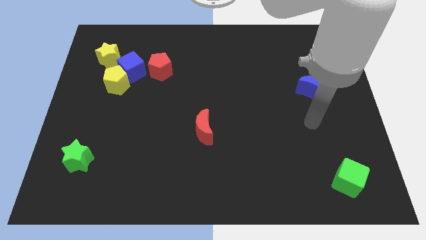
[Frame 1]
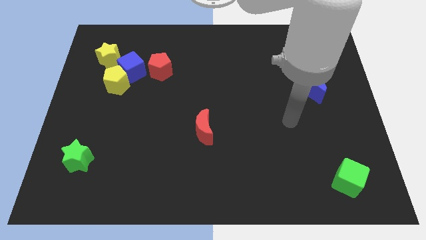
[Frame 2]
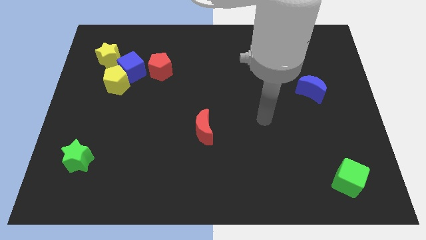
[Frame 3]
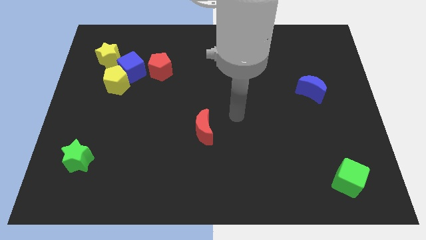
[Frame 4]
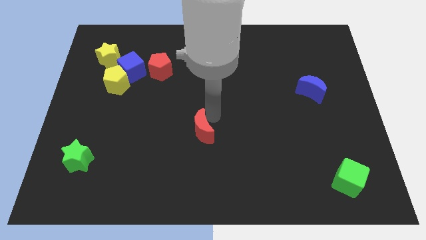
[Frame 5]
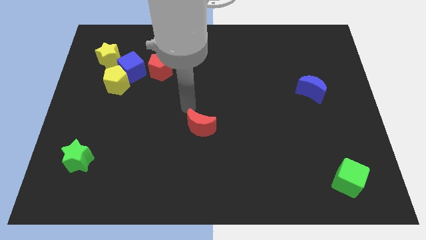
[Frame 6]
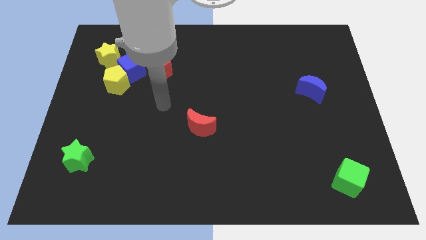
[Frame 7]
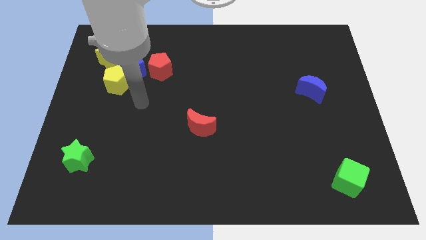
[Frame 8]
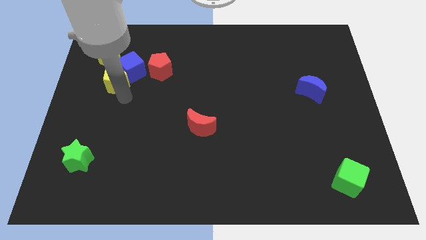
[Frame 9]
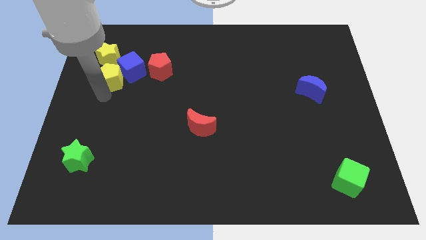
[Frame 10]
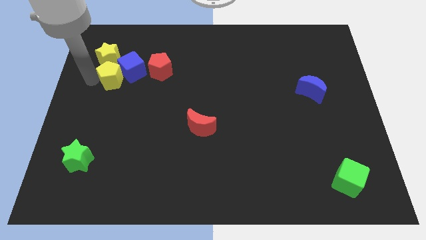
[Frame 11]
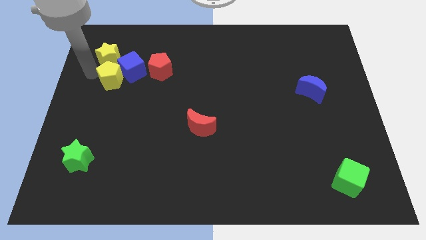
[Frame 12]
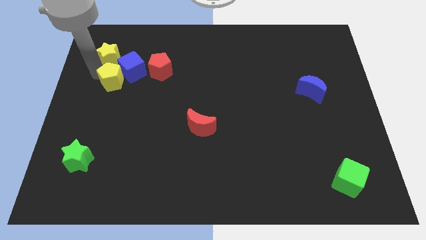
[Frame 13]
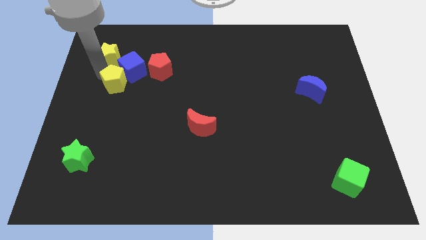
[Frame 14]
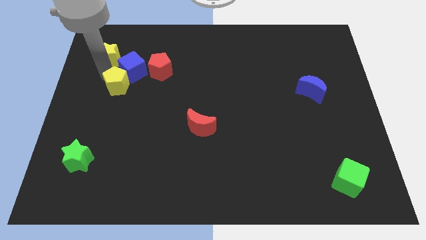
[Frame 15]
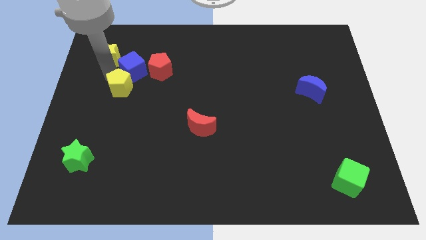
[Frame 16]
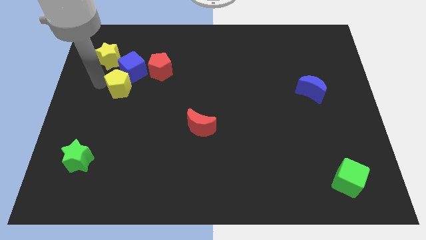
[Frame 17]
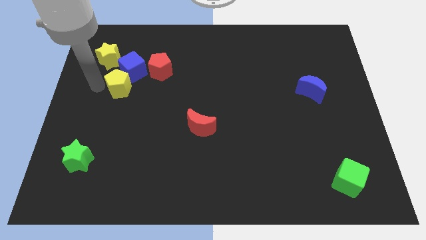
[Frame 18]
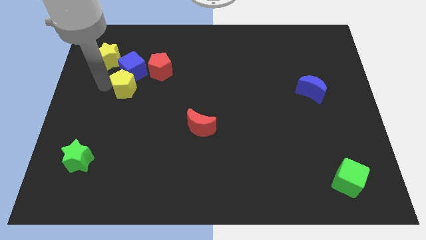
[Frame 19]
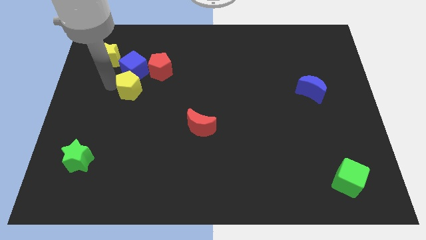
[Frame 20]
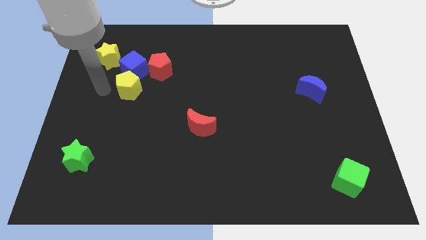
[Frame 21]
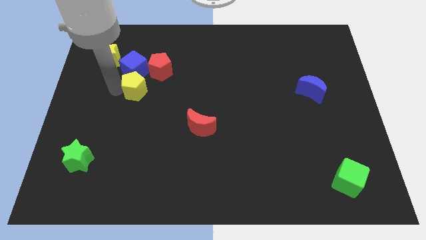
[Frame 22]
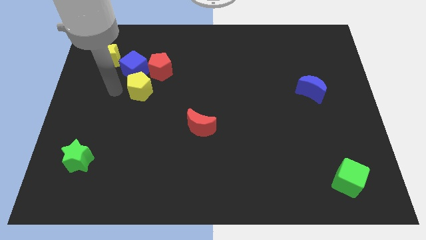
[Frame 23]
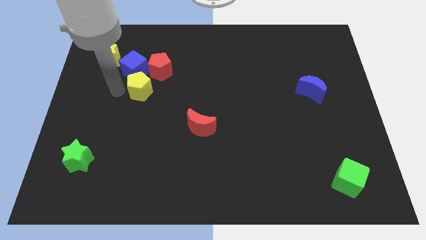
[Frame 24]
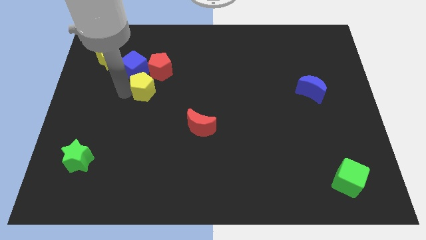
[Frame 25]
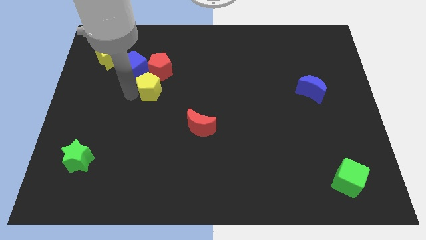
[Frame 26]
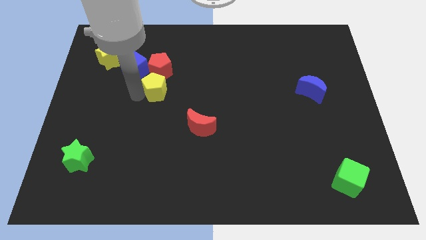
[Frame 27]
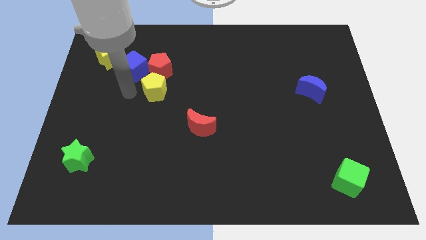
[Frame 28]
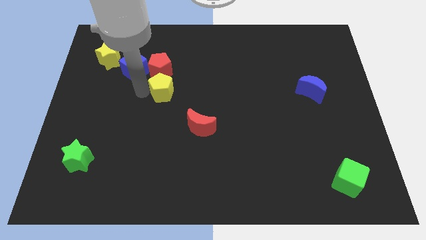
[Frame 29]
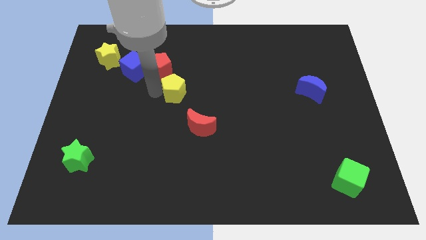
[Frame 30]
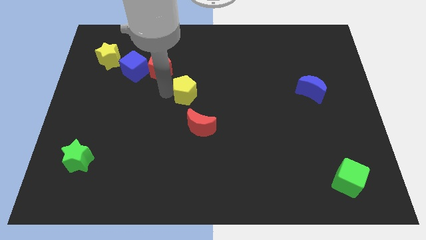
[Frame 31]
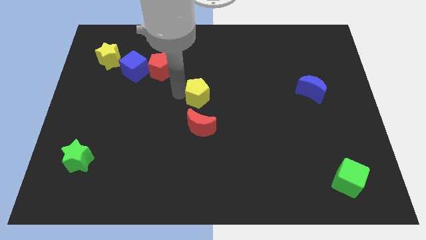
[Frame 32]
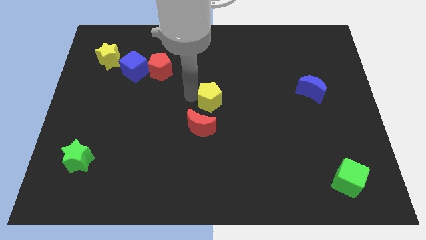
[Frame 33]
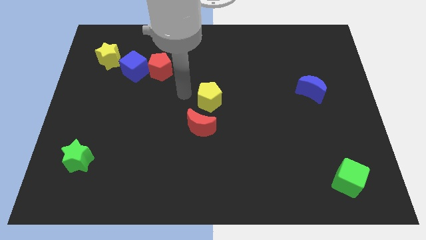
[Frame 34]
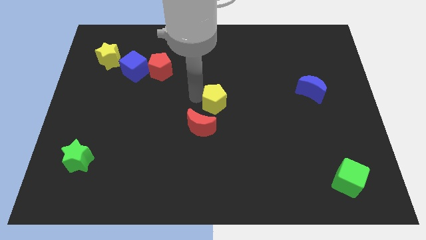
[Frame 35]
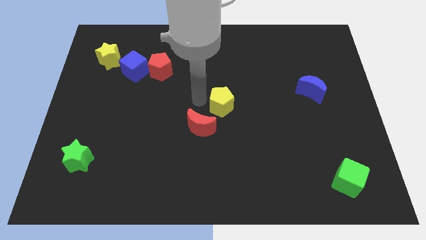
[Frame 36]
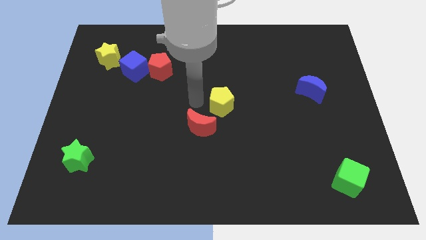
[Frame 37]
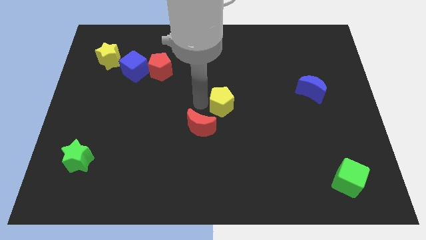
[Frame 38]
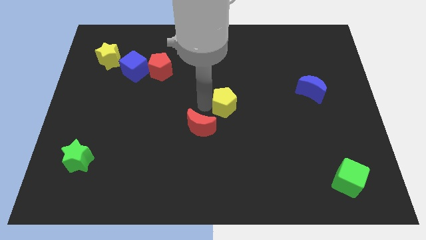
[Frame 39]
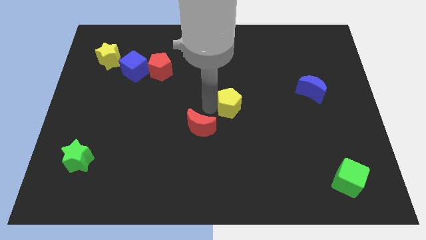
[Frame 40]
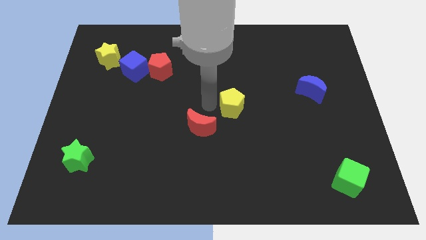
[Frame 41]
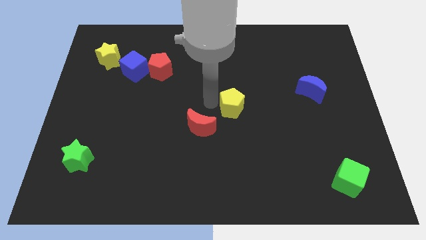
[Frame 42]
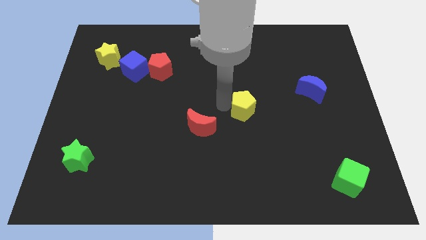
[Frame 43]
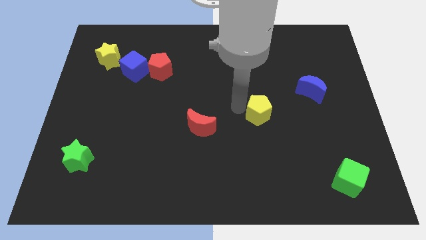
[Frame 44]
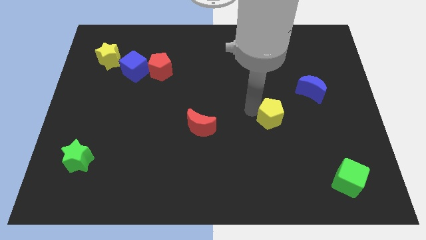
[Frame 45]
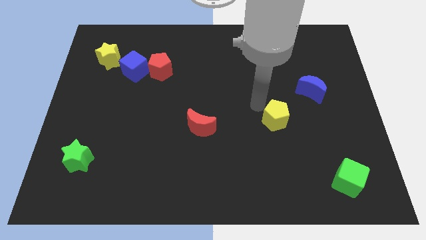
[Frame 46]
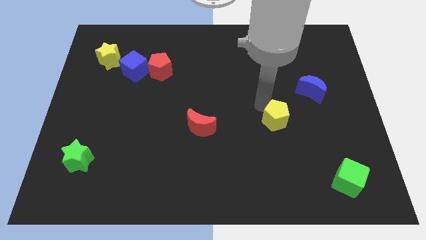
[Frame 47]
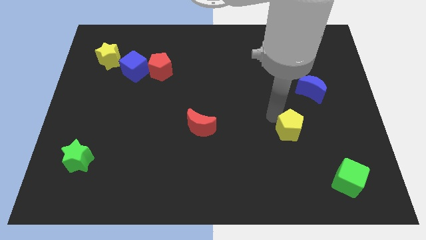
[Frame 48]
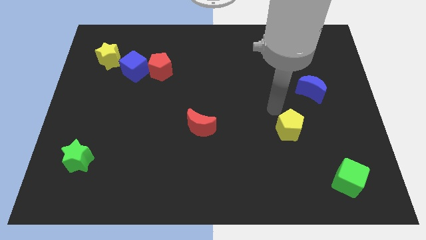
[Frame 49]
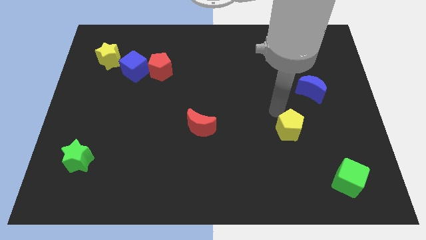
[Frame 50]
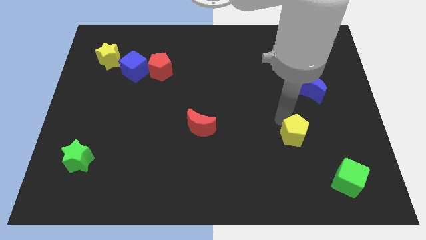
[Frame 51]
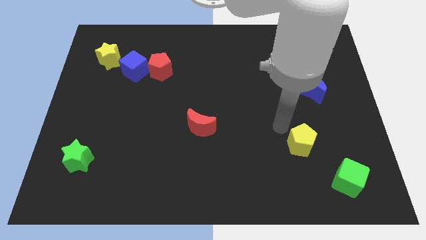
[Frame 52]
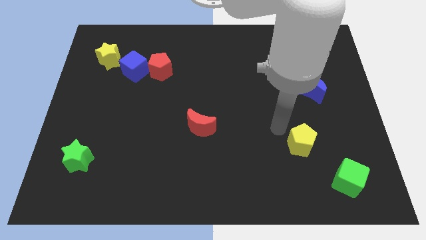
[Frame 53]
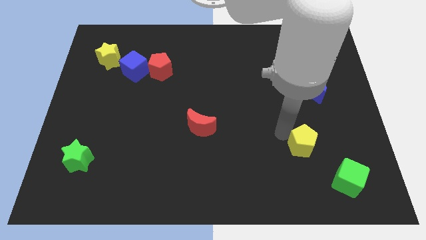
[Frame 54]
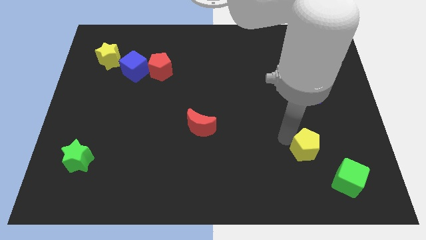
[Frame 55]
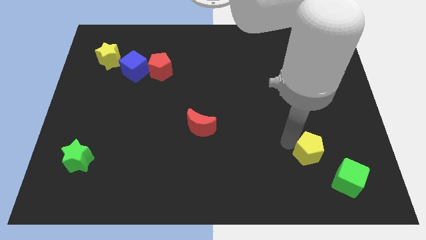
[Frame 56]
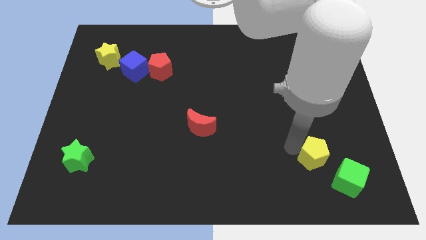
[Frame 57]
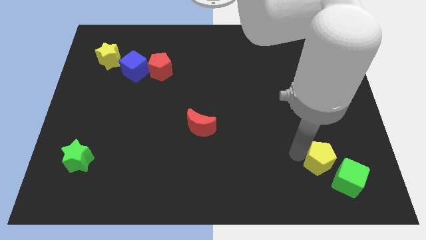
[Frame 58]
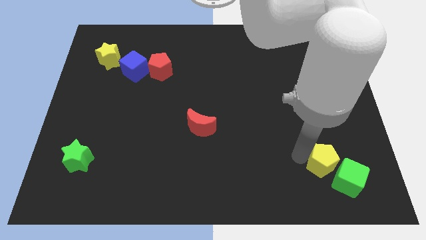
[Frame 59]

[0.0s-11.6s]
put the yellow pentagon close to the green cube

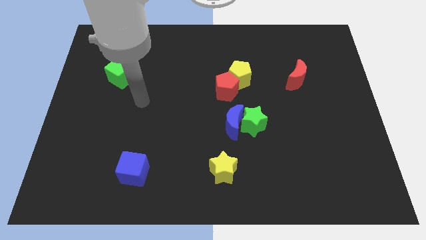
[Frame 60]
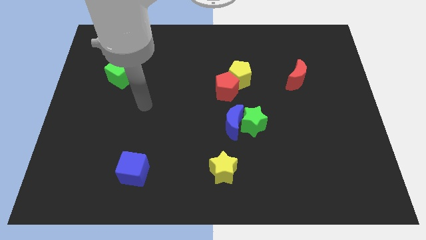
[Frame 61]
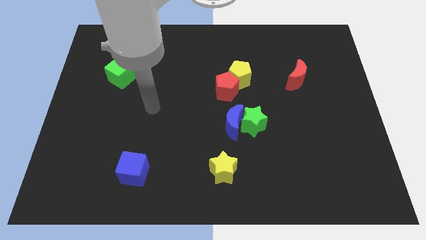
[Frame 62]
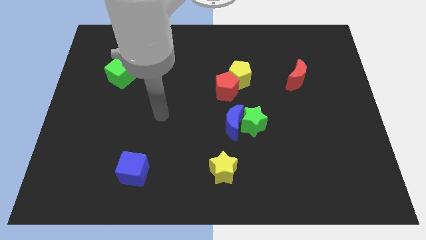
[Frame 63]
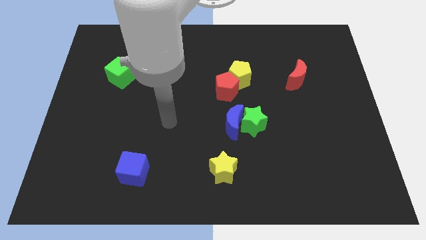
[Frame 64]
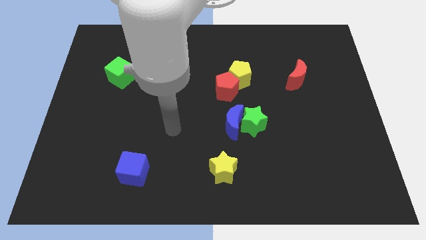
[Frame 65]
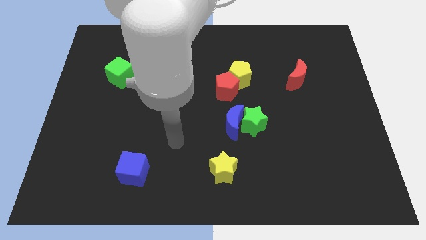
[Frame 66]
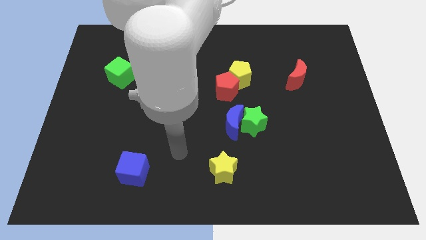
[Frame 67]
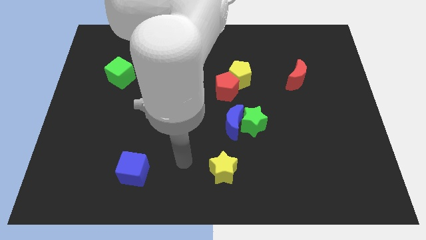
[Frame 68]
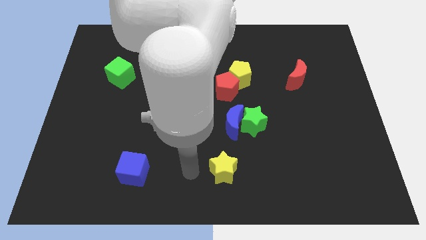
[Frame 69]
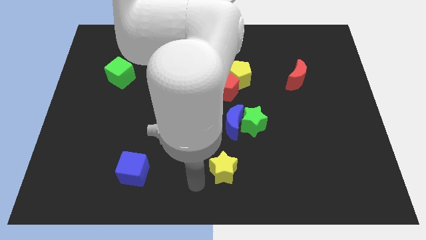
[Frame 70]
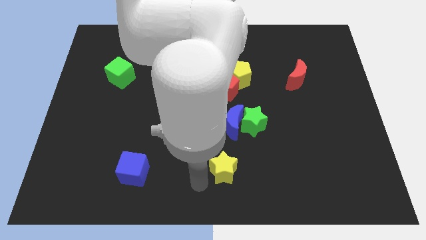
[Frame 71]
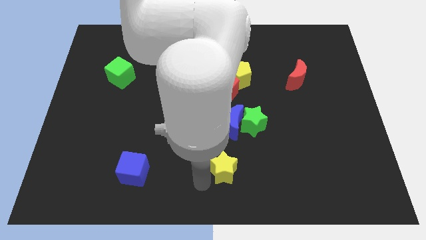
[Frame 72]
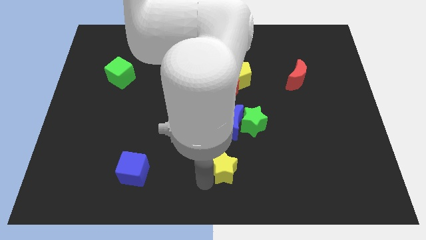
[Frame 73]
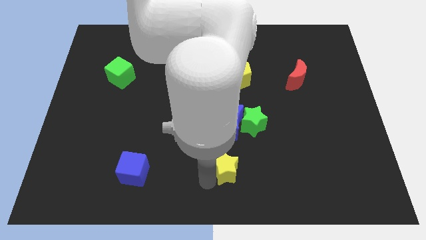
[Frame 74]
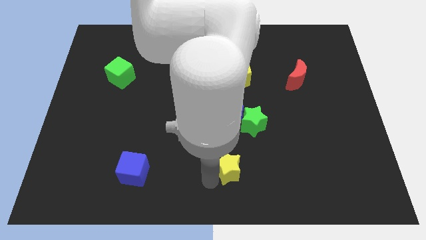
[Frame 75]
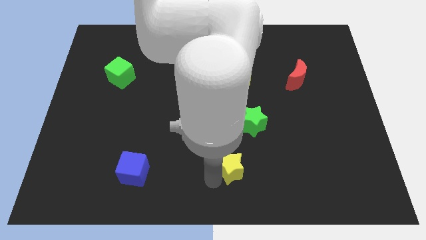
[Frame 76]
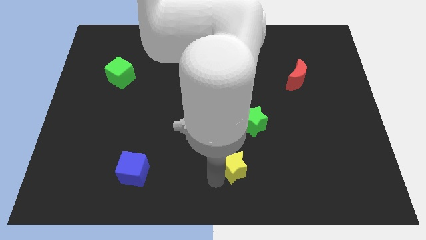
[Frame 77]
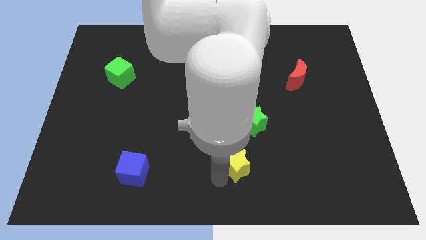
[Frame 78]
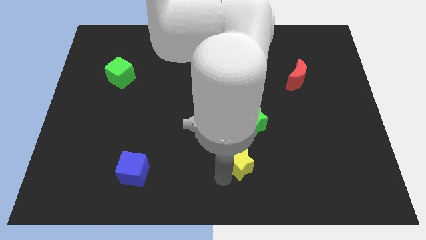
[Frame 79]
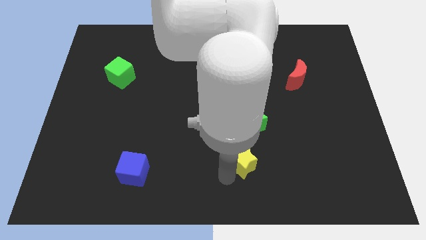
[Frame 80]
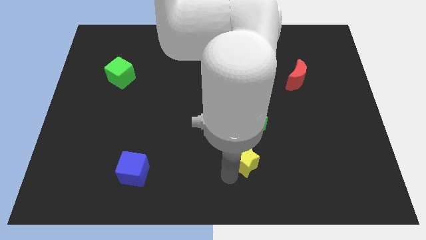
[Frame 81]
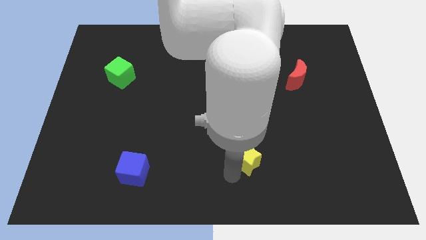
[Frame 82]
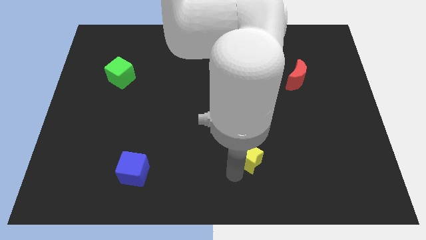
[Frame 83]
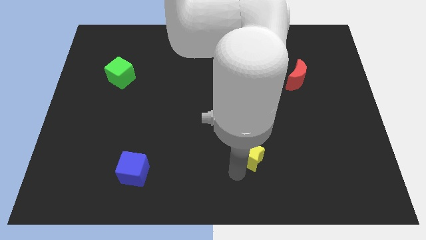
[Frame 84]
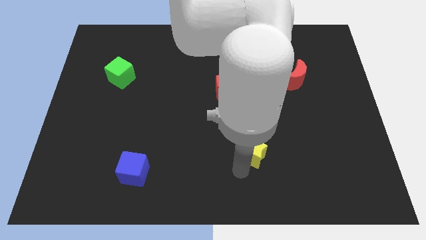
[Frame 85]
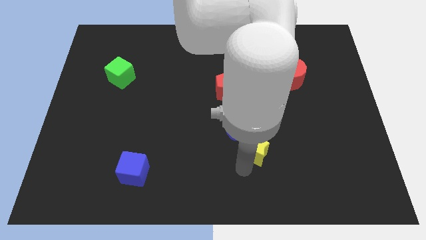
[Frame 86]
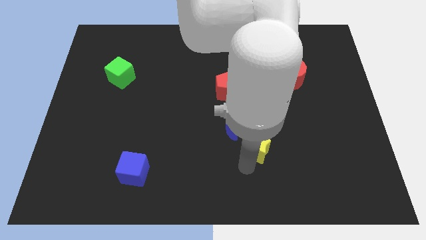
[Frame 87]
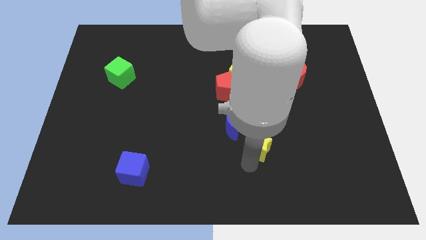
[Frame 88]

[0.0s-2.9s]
put the yellow star next to the green star
